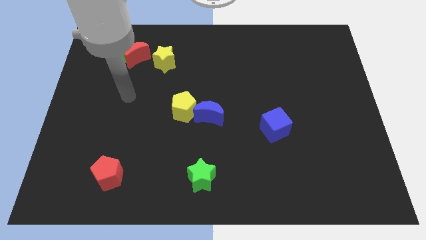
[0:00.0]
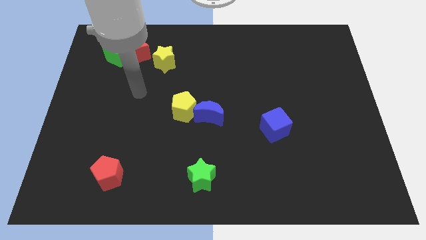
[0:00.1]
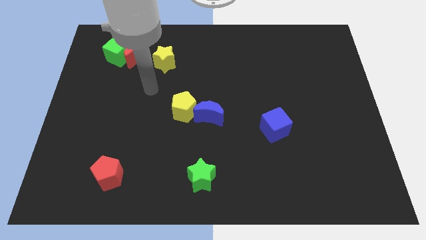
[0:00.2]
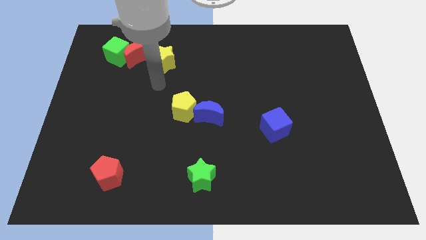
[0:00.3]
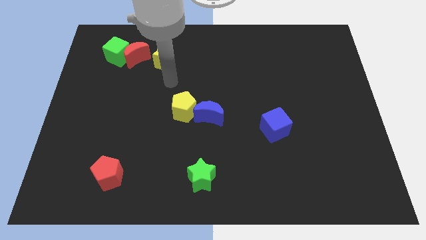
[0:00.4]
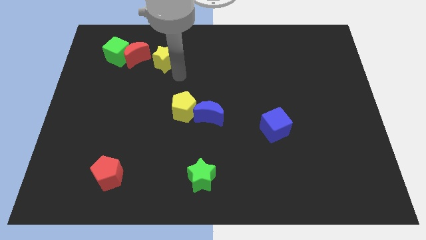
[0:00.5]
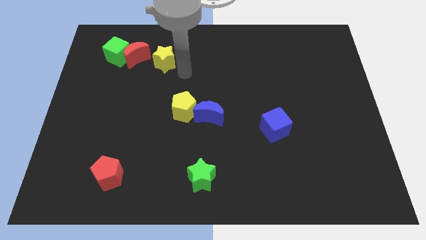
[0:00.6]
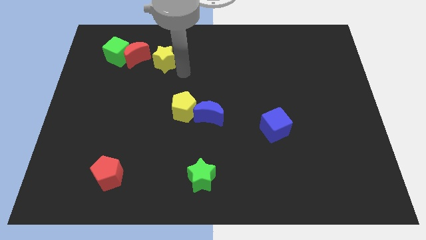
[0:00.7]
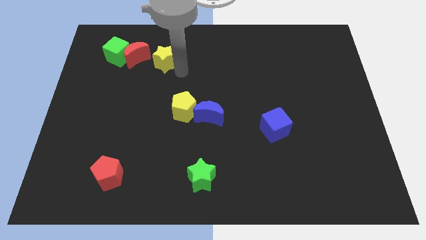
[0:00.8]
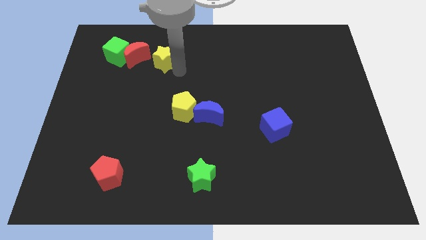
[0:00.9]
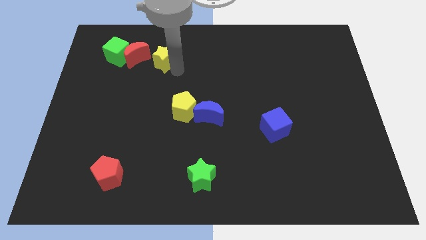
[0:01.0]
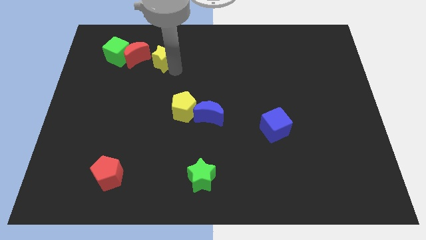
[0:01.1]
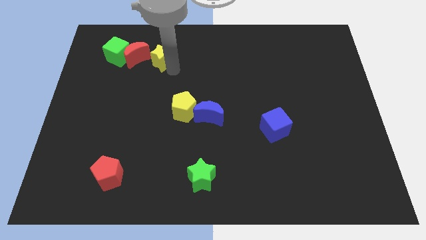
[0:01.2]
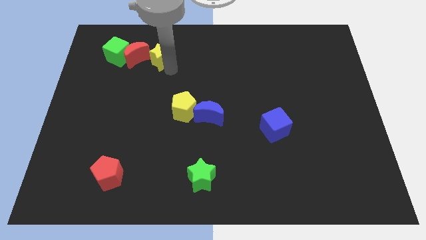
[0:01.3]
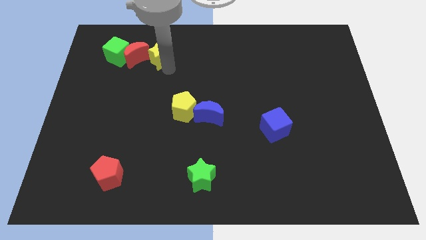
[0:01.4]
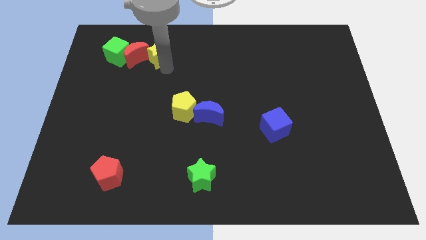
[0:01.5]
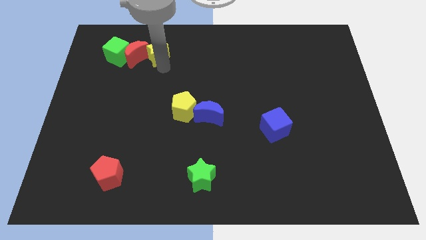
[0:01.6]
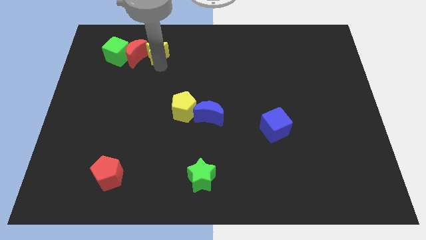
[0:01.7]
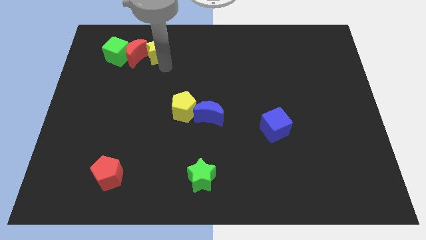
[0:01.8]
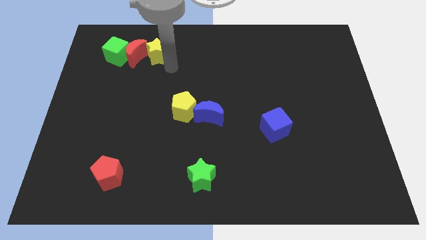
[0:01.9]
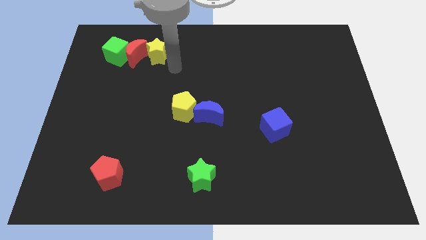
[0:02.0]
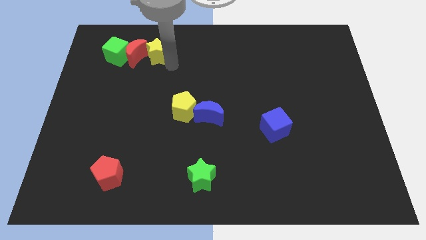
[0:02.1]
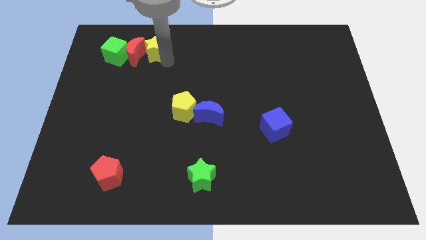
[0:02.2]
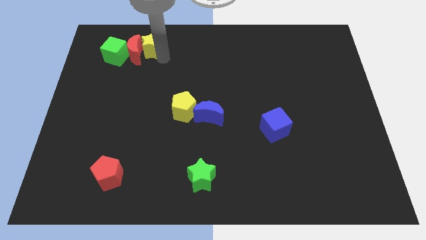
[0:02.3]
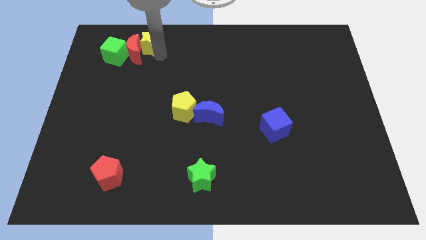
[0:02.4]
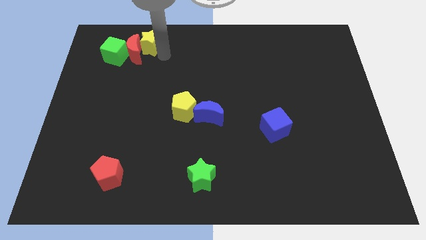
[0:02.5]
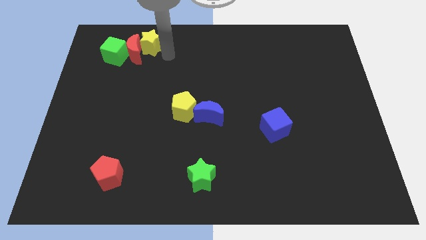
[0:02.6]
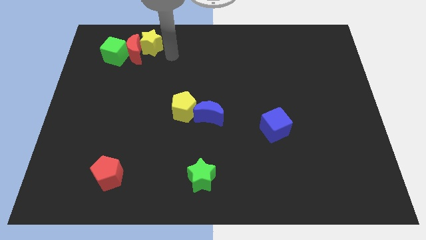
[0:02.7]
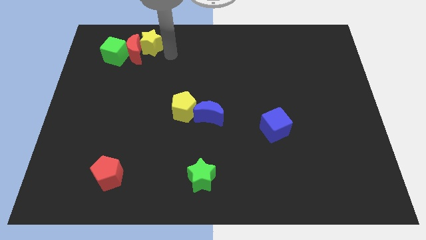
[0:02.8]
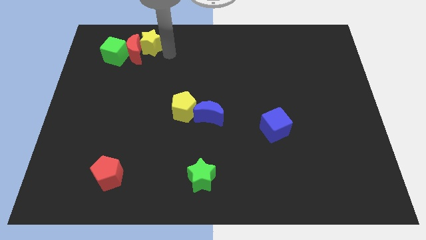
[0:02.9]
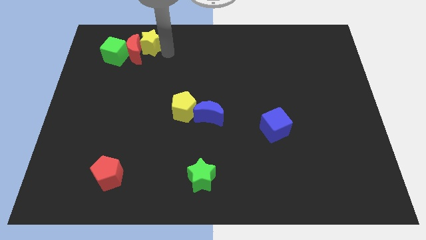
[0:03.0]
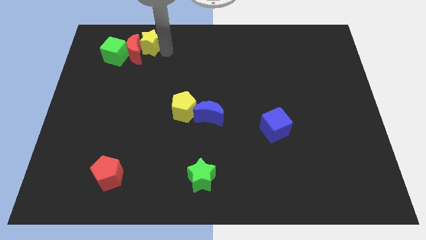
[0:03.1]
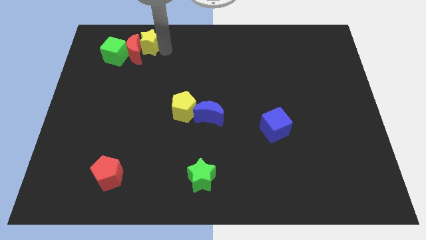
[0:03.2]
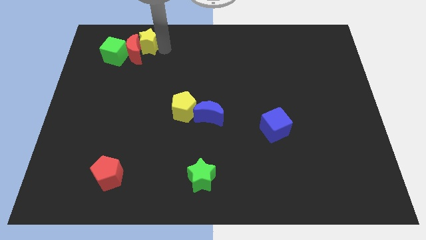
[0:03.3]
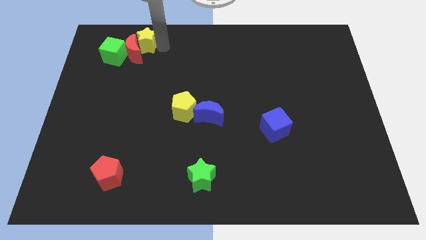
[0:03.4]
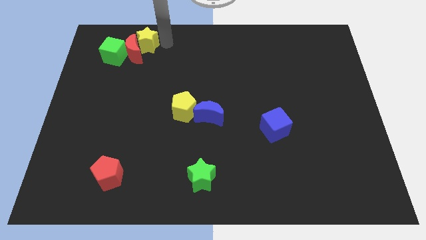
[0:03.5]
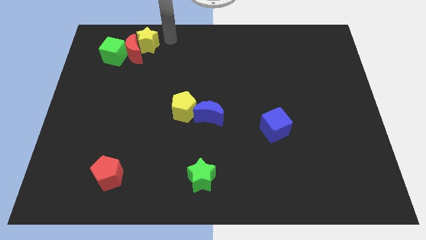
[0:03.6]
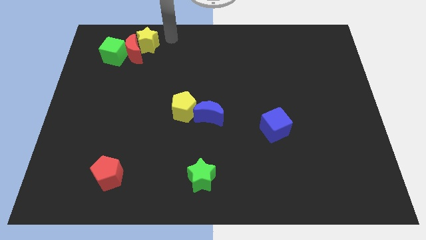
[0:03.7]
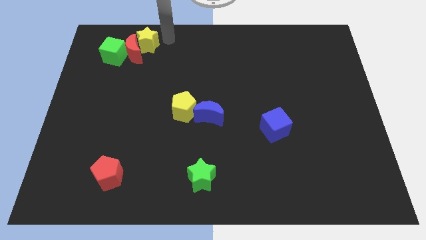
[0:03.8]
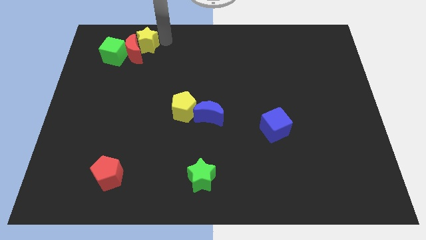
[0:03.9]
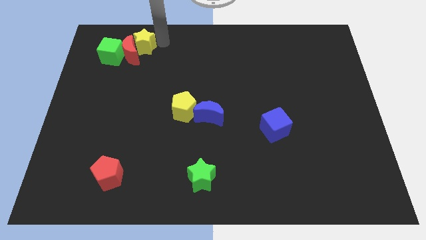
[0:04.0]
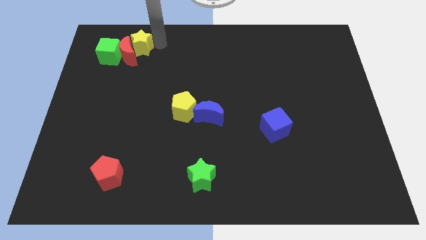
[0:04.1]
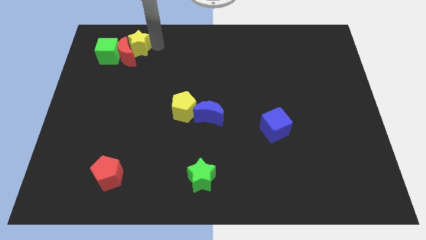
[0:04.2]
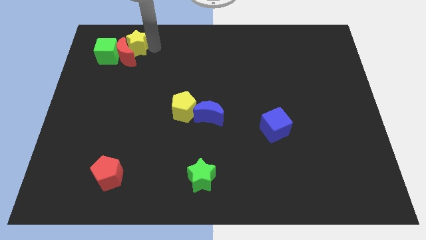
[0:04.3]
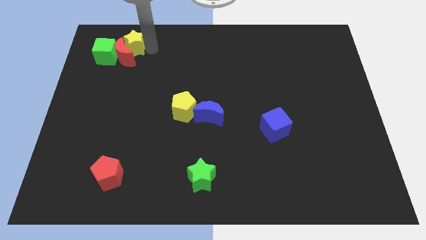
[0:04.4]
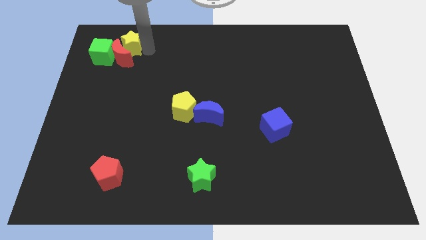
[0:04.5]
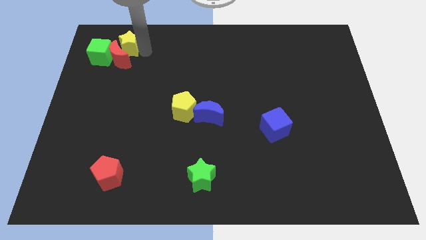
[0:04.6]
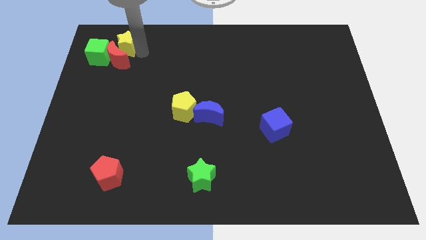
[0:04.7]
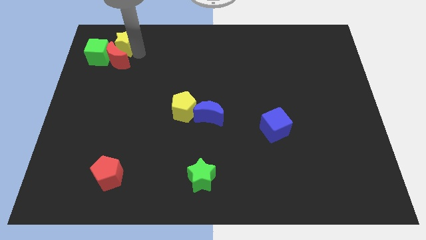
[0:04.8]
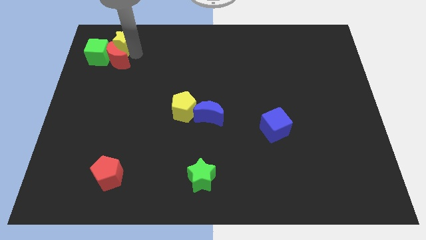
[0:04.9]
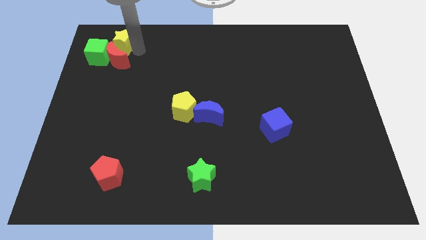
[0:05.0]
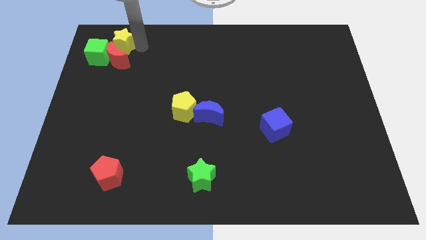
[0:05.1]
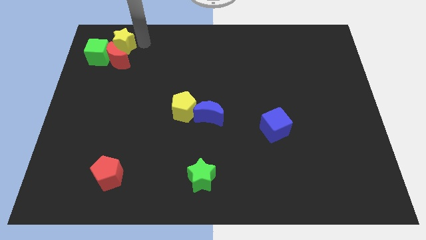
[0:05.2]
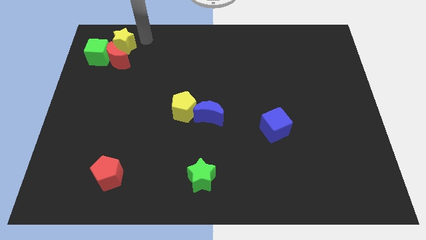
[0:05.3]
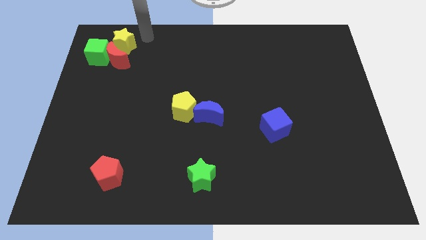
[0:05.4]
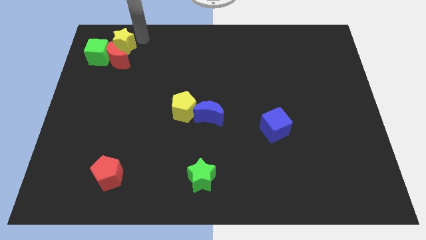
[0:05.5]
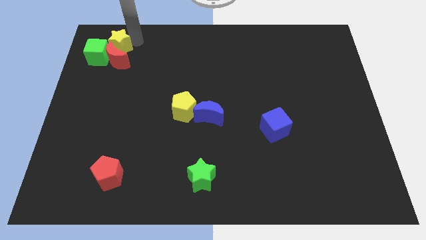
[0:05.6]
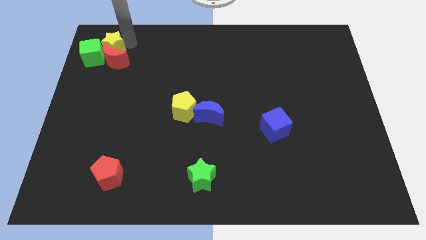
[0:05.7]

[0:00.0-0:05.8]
move the yellow star close to the green cube

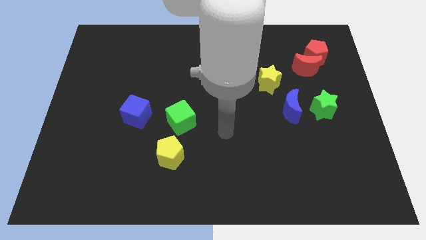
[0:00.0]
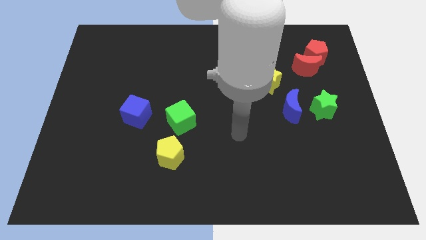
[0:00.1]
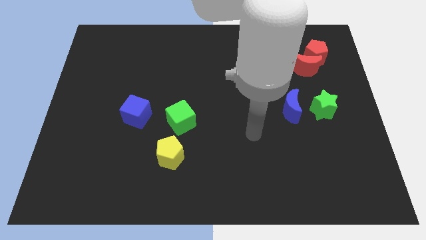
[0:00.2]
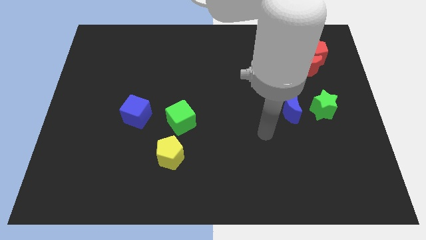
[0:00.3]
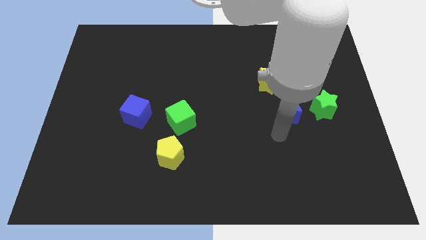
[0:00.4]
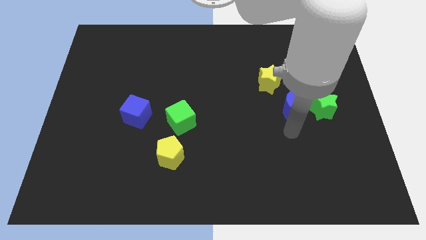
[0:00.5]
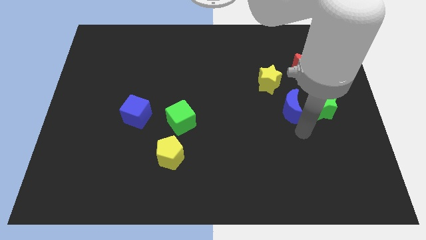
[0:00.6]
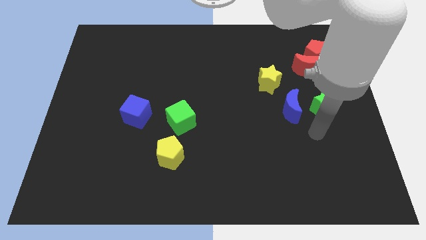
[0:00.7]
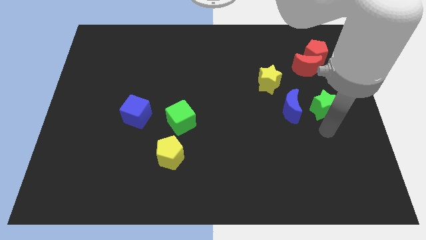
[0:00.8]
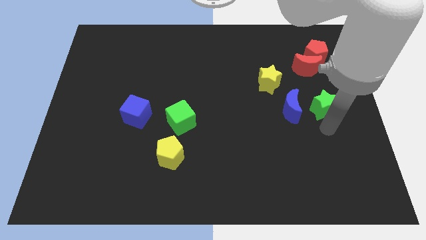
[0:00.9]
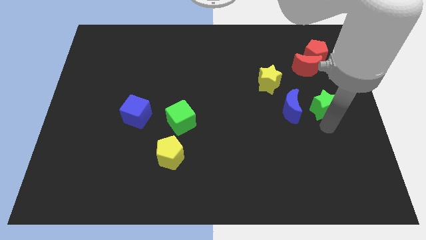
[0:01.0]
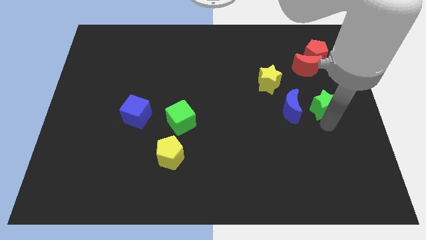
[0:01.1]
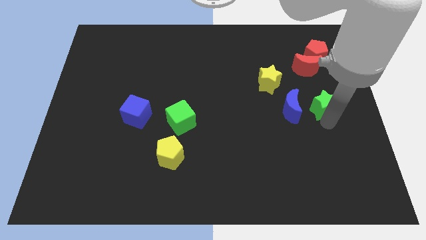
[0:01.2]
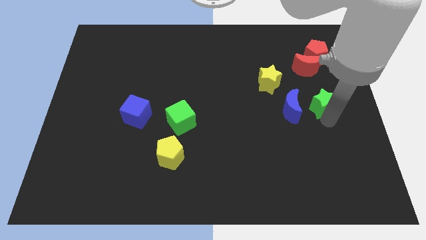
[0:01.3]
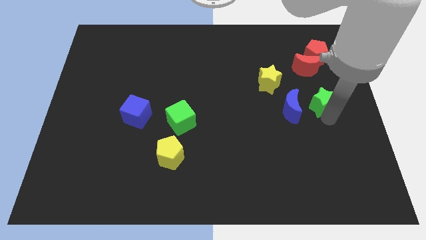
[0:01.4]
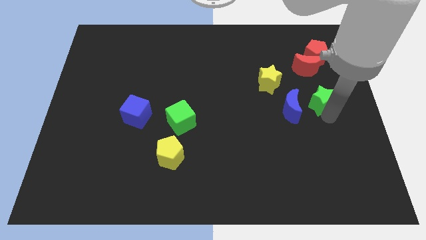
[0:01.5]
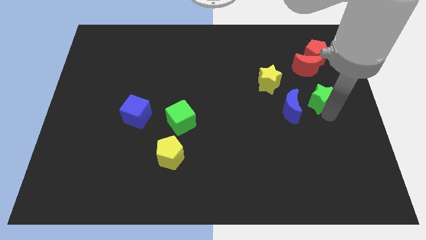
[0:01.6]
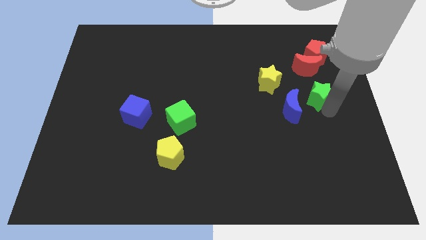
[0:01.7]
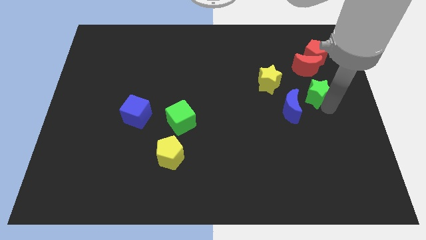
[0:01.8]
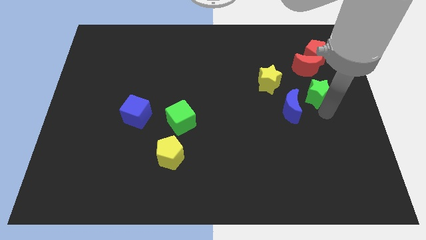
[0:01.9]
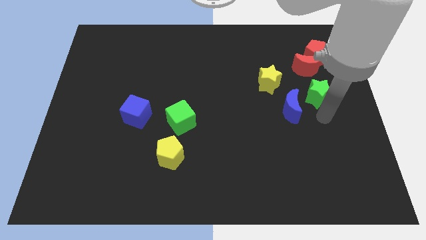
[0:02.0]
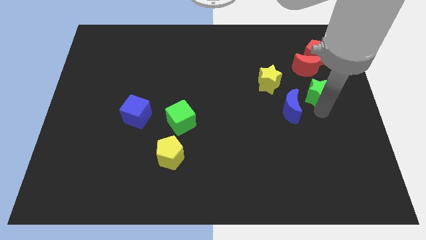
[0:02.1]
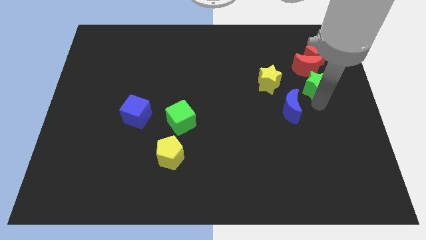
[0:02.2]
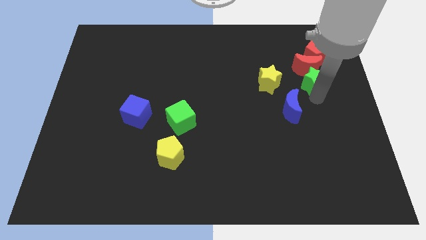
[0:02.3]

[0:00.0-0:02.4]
slide the green star close to the red moon
